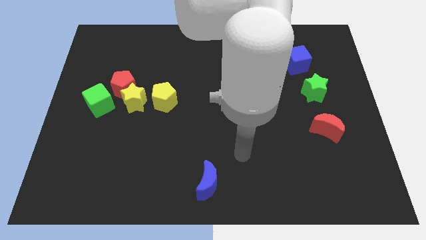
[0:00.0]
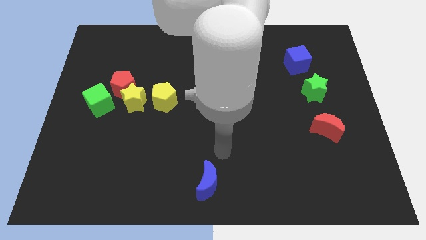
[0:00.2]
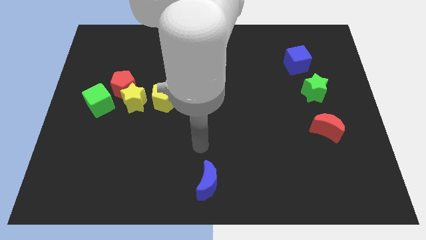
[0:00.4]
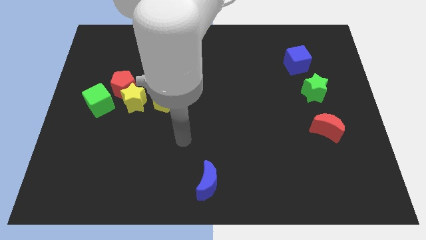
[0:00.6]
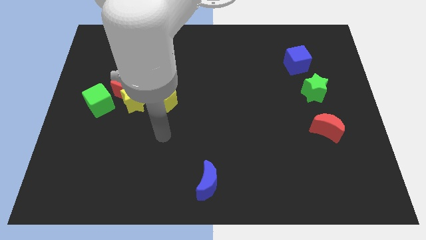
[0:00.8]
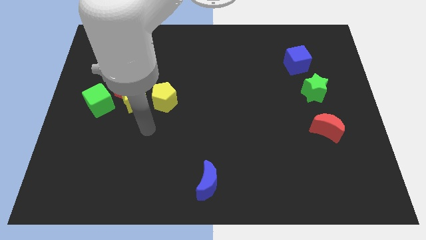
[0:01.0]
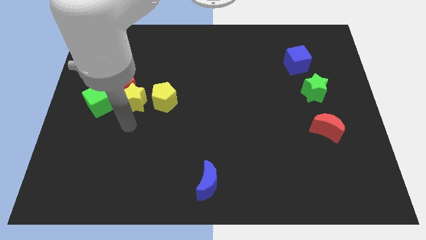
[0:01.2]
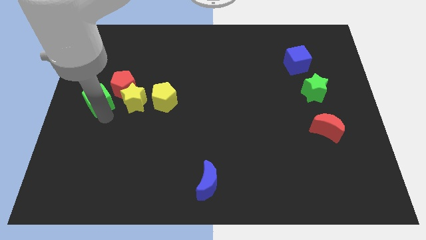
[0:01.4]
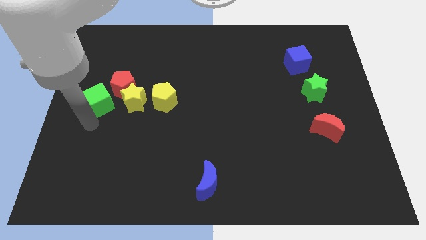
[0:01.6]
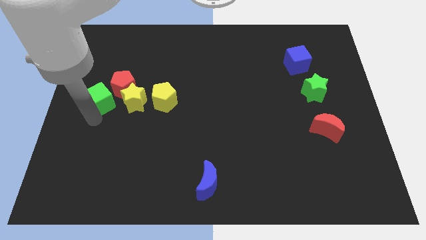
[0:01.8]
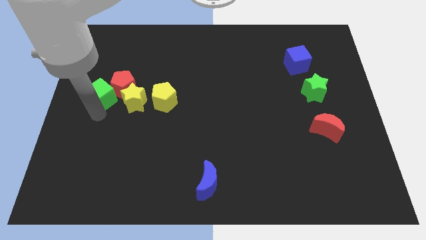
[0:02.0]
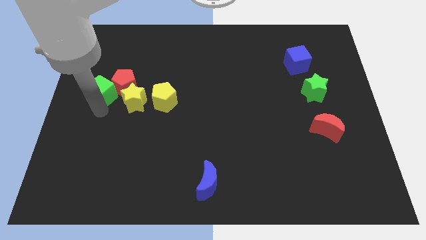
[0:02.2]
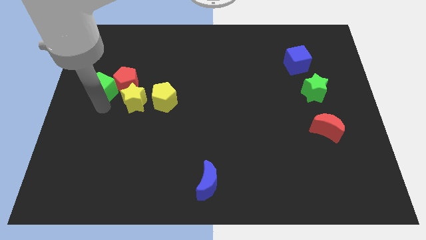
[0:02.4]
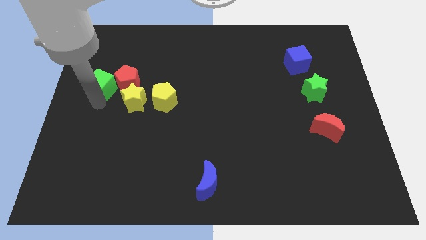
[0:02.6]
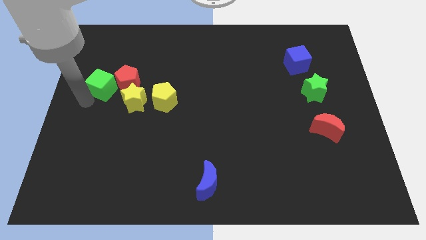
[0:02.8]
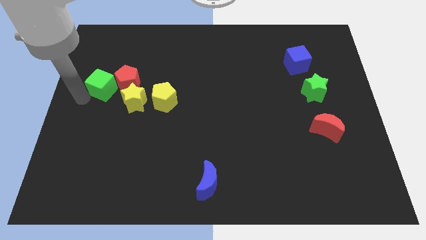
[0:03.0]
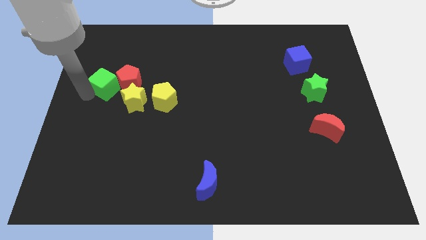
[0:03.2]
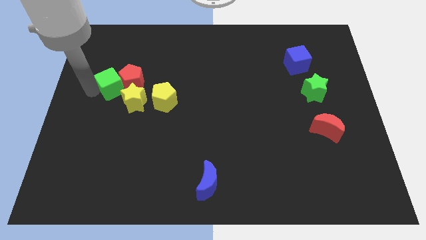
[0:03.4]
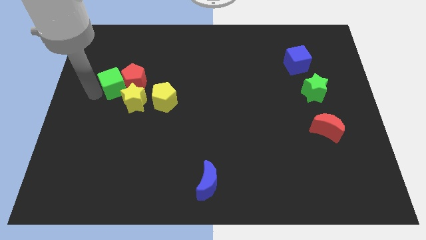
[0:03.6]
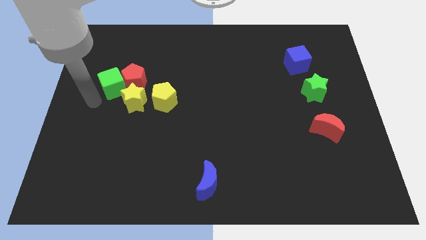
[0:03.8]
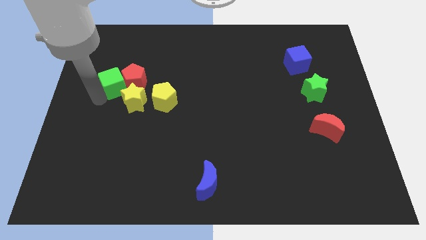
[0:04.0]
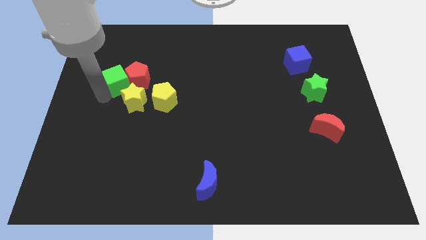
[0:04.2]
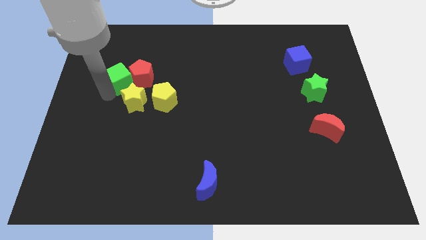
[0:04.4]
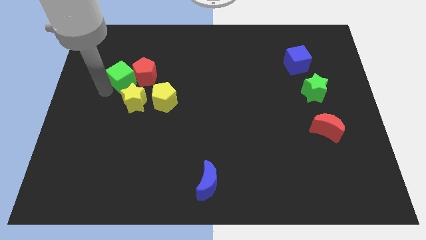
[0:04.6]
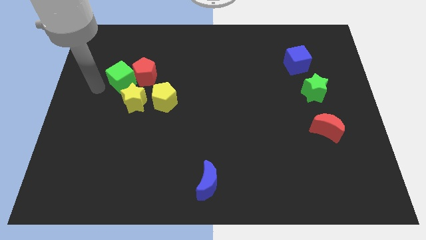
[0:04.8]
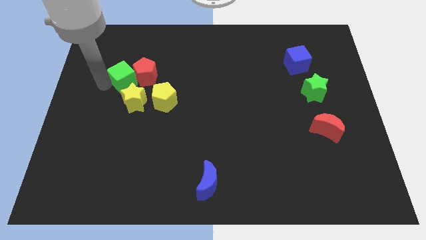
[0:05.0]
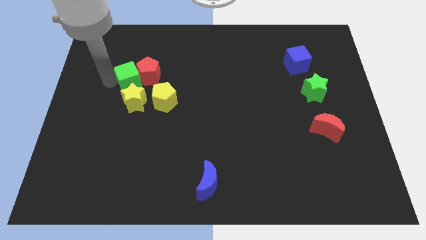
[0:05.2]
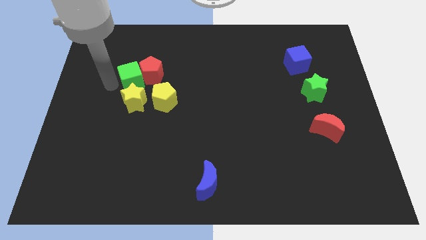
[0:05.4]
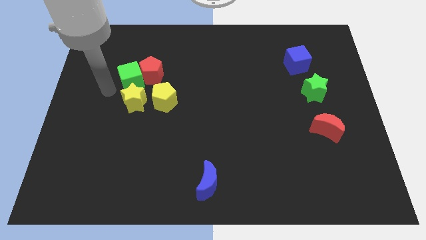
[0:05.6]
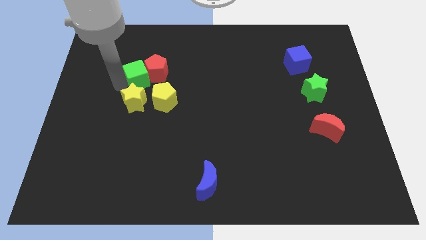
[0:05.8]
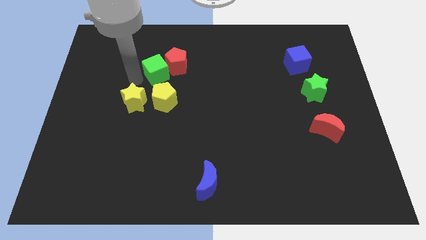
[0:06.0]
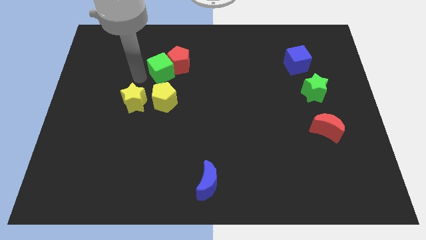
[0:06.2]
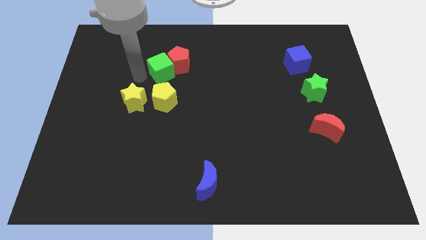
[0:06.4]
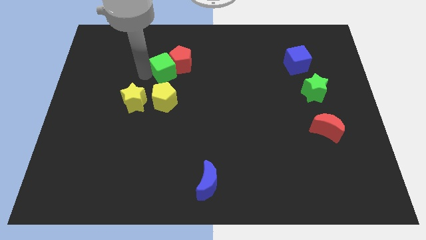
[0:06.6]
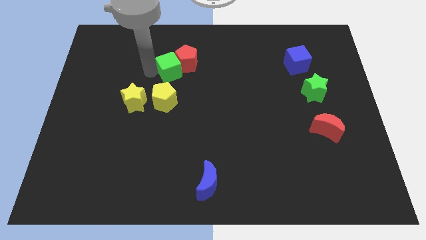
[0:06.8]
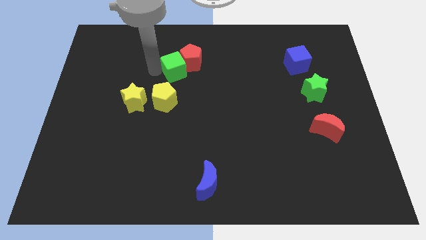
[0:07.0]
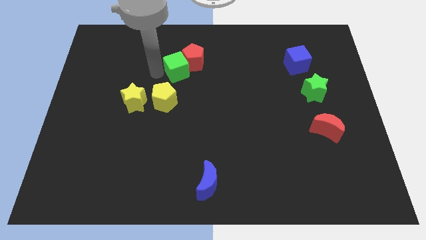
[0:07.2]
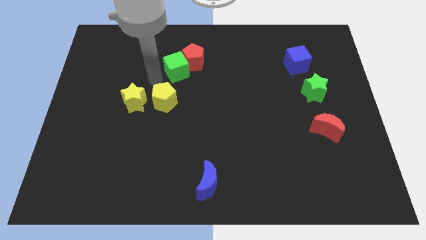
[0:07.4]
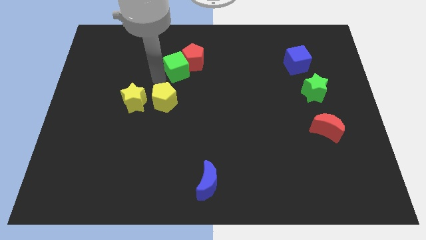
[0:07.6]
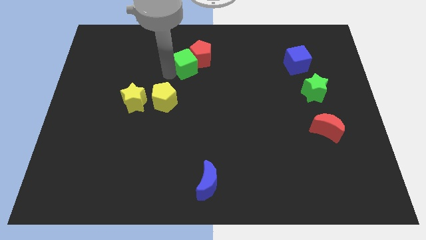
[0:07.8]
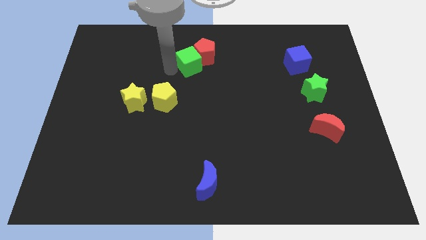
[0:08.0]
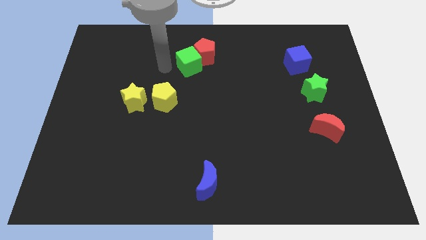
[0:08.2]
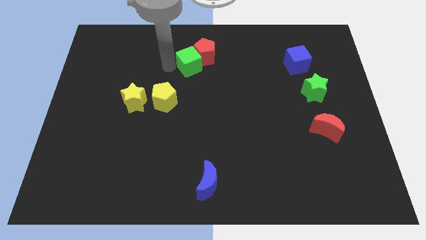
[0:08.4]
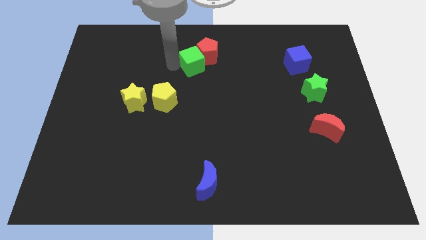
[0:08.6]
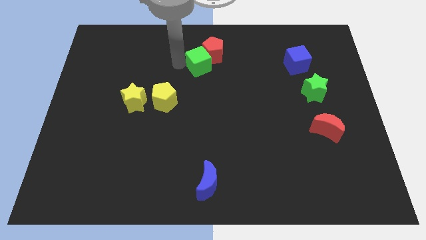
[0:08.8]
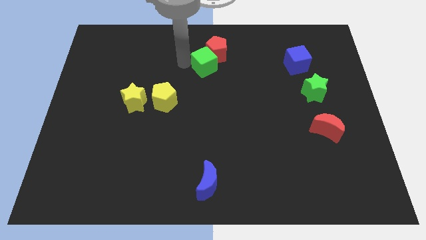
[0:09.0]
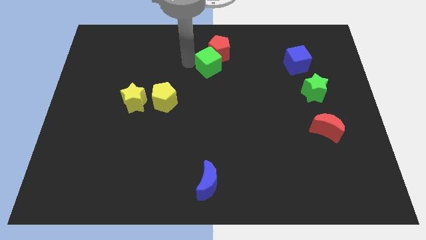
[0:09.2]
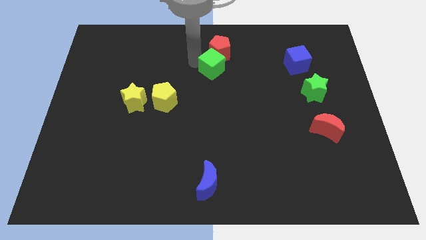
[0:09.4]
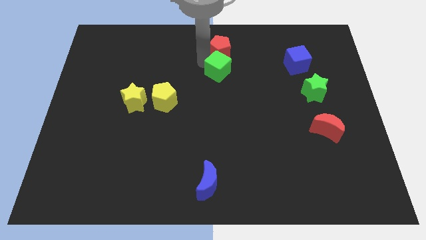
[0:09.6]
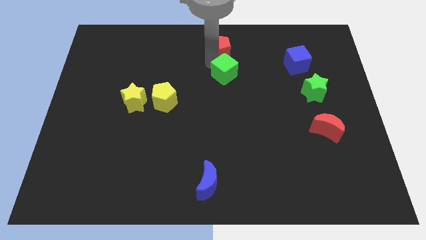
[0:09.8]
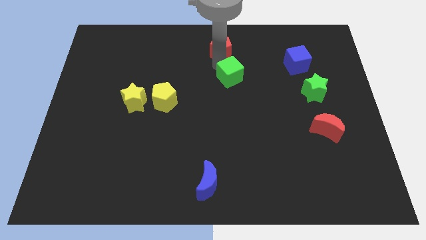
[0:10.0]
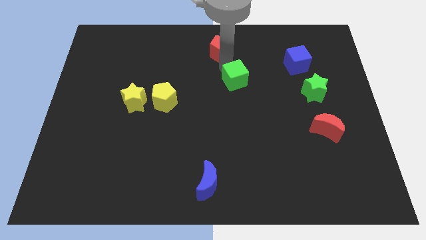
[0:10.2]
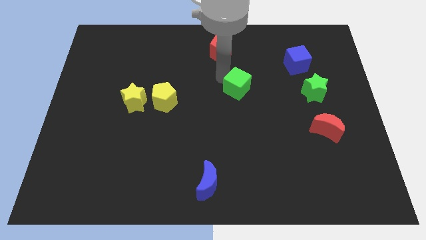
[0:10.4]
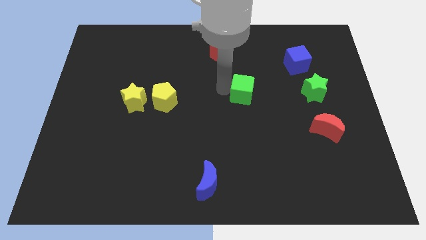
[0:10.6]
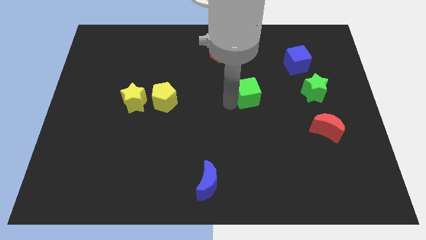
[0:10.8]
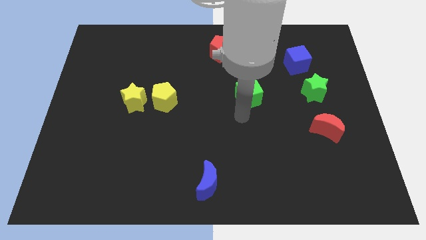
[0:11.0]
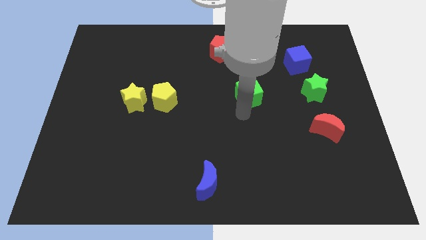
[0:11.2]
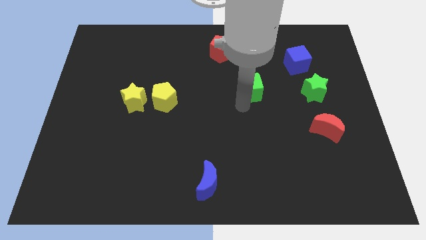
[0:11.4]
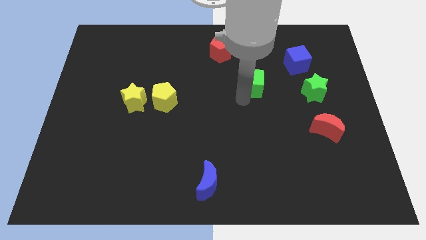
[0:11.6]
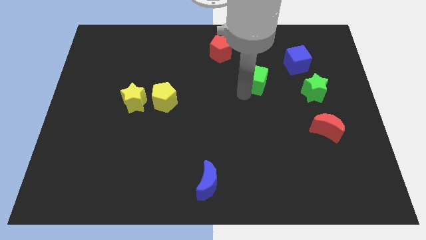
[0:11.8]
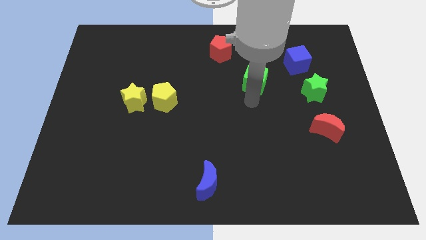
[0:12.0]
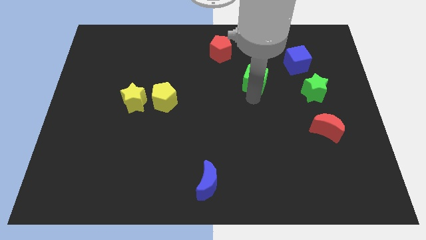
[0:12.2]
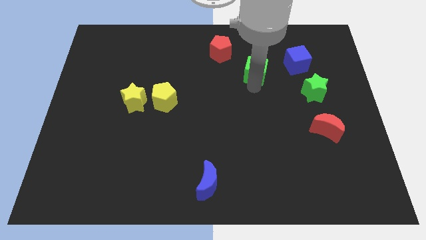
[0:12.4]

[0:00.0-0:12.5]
put the green cube to the left of the blue cube

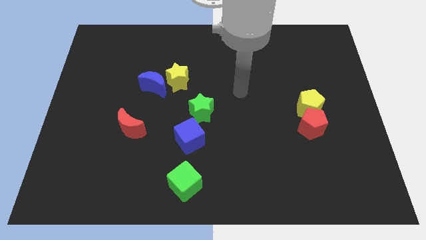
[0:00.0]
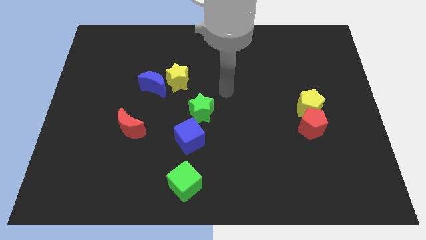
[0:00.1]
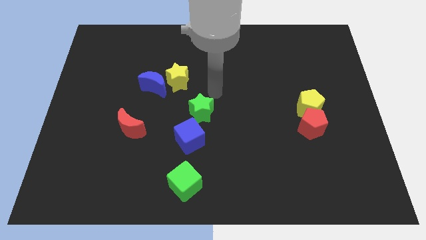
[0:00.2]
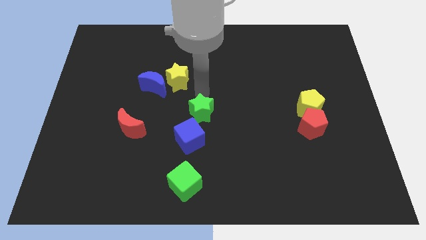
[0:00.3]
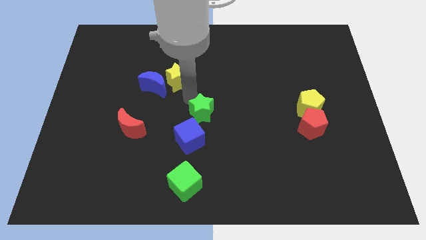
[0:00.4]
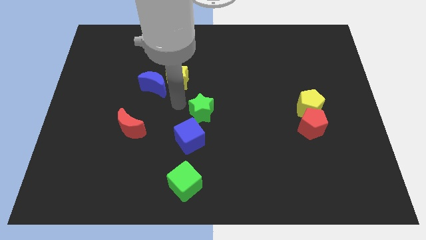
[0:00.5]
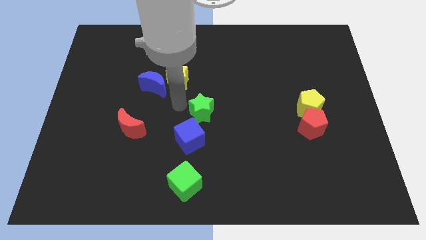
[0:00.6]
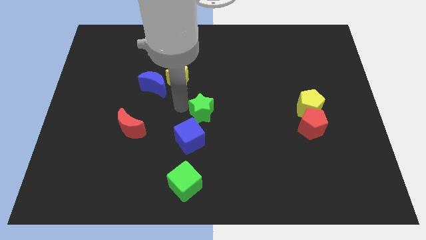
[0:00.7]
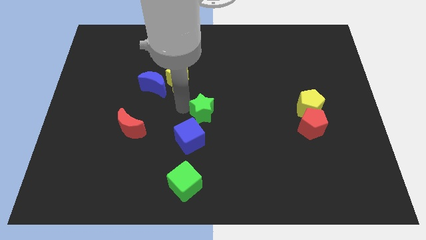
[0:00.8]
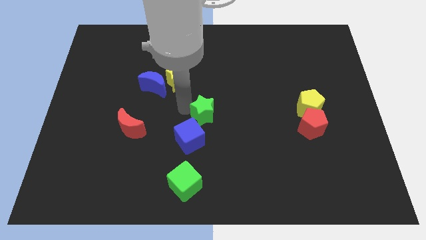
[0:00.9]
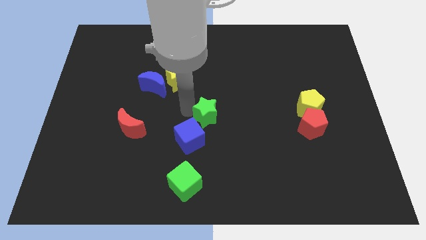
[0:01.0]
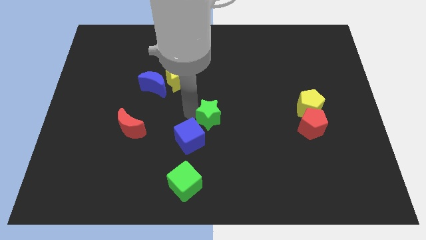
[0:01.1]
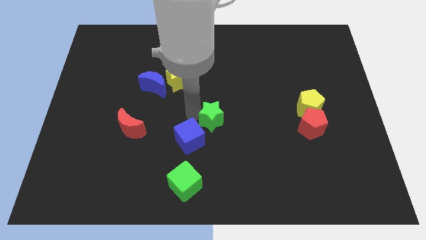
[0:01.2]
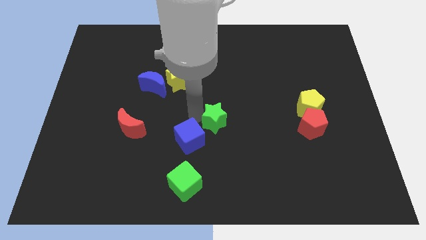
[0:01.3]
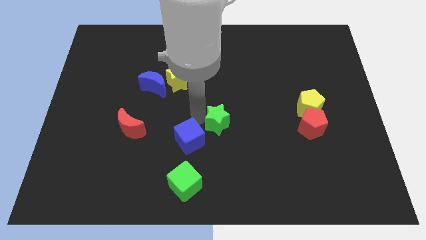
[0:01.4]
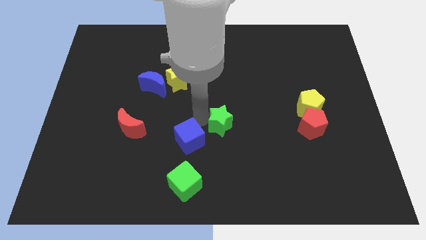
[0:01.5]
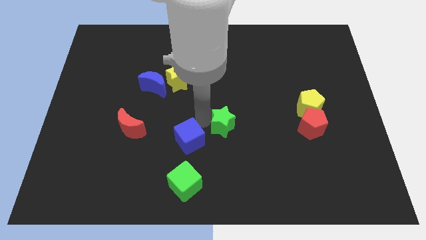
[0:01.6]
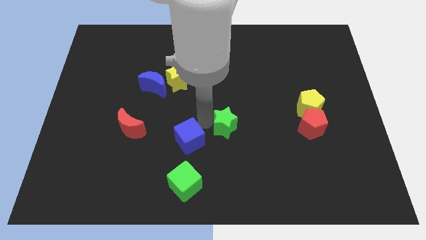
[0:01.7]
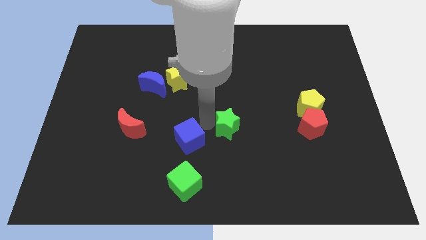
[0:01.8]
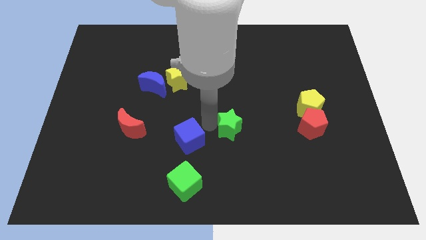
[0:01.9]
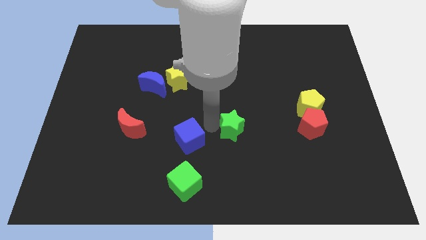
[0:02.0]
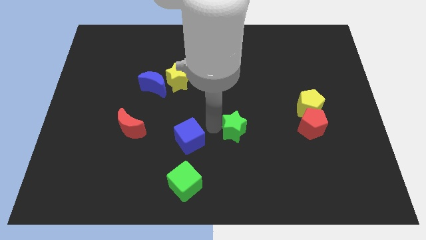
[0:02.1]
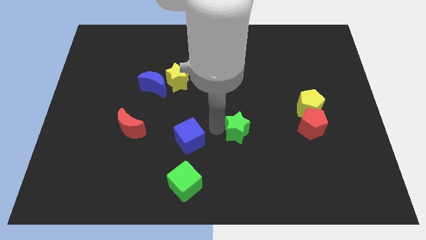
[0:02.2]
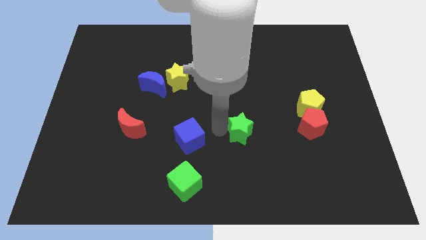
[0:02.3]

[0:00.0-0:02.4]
slide the green star left of the red pentagon
